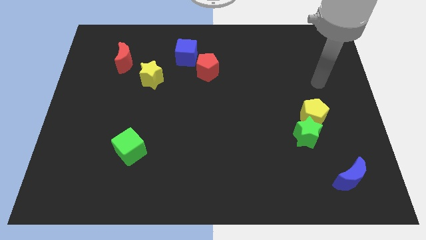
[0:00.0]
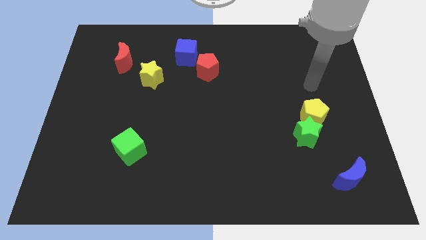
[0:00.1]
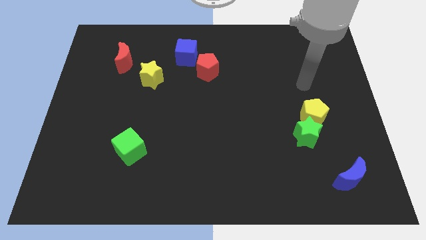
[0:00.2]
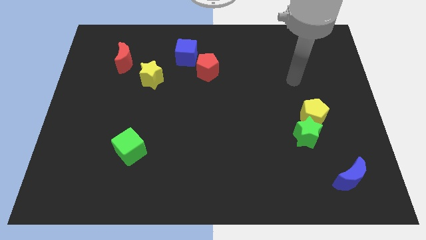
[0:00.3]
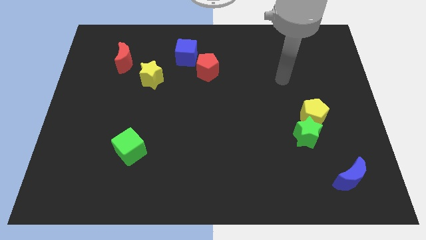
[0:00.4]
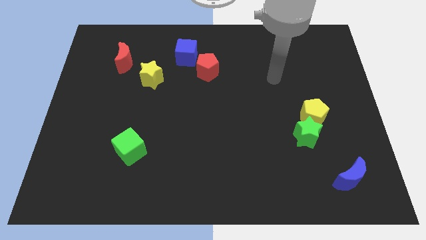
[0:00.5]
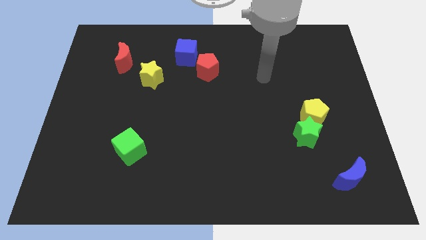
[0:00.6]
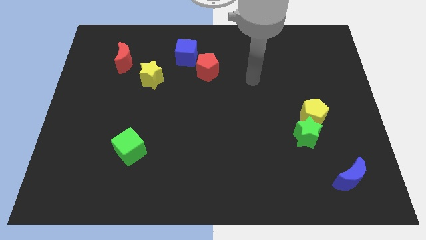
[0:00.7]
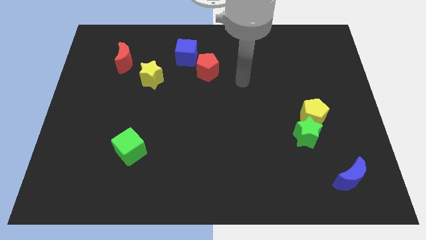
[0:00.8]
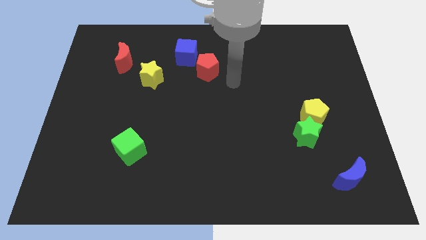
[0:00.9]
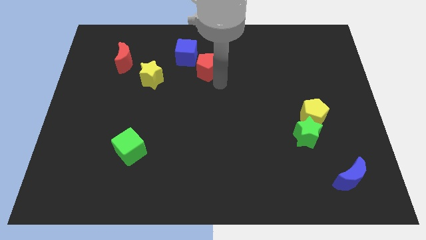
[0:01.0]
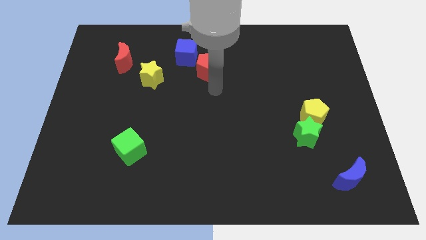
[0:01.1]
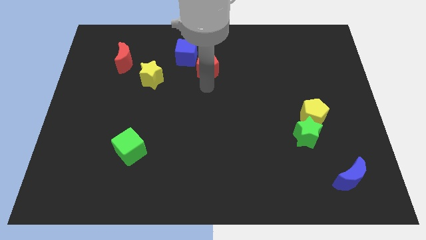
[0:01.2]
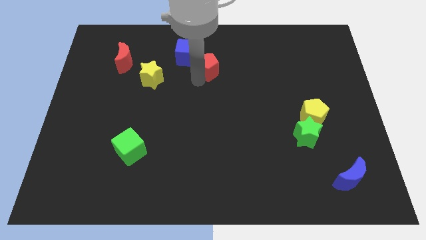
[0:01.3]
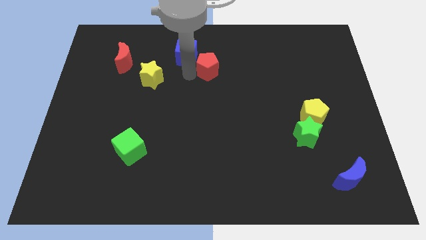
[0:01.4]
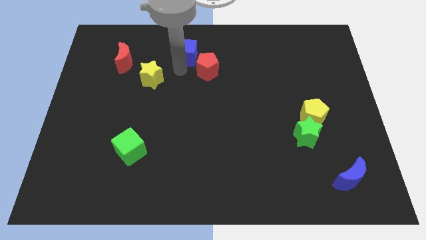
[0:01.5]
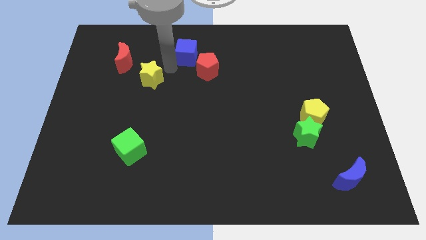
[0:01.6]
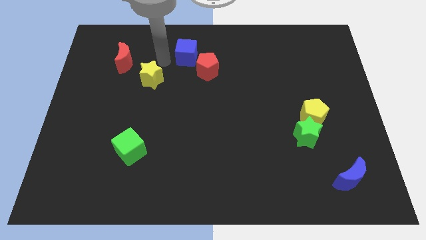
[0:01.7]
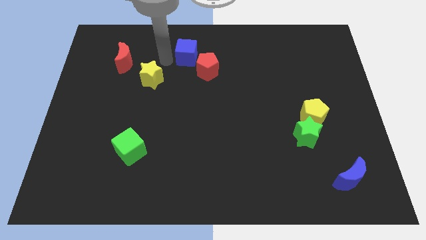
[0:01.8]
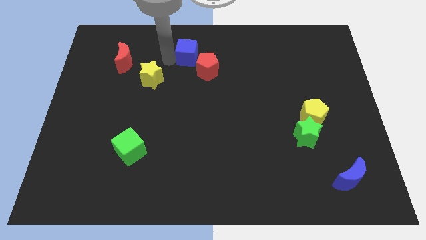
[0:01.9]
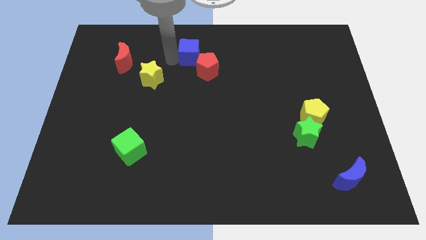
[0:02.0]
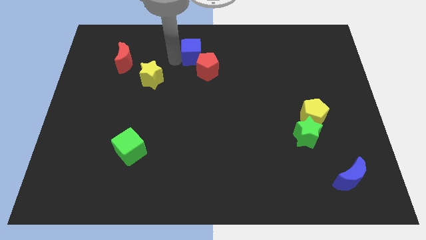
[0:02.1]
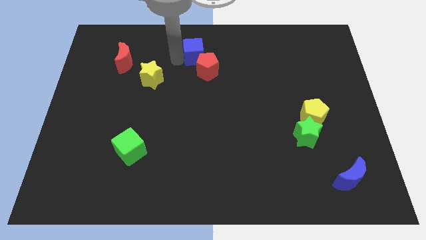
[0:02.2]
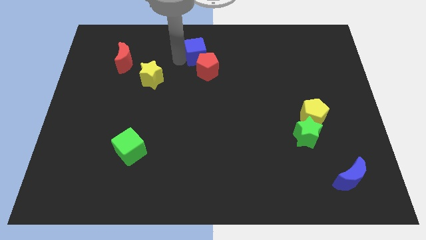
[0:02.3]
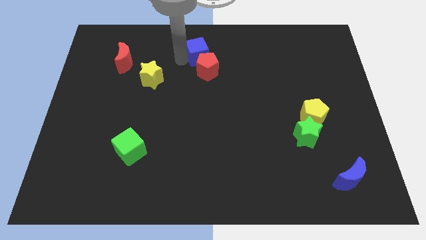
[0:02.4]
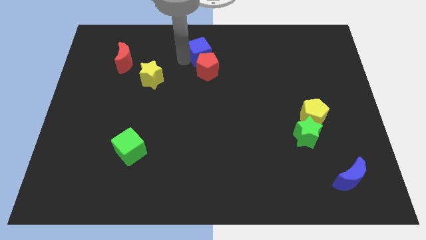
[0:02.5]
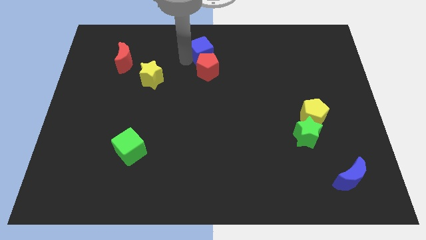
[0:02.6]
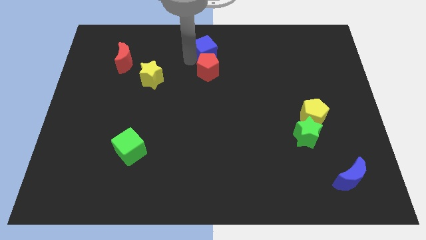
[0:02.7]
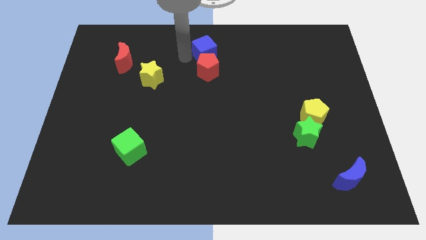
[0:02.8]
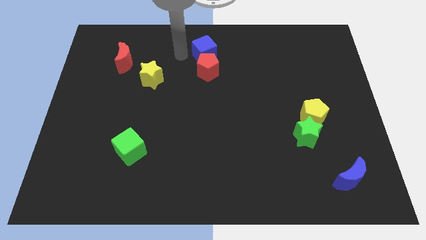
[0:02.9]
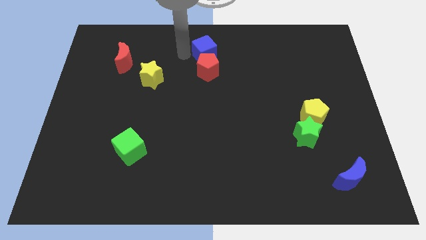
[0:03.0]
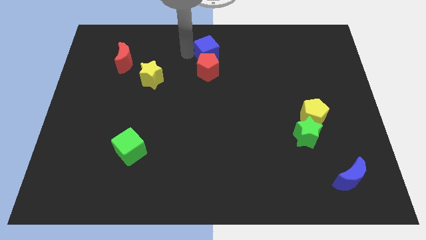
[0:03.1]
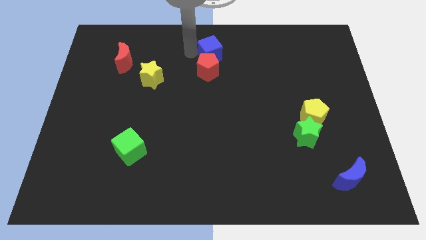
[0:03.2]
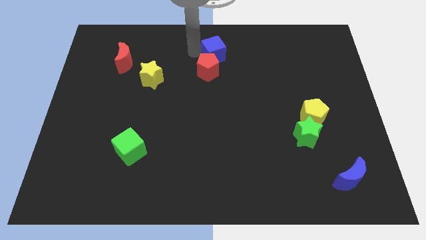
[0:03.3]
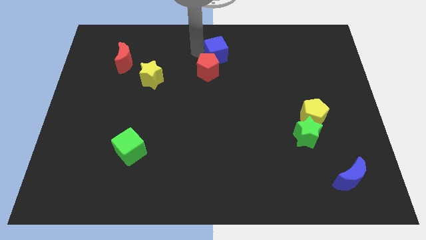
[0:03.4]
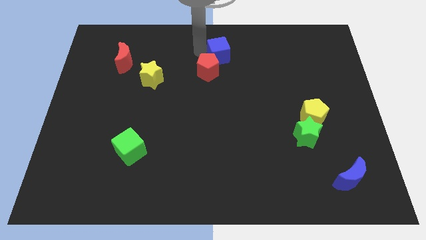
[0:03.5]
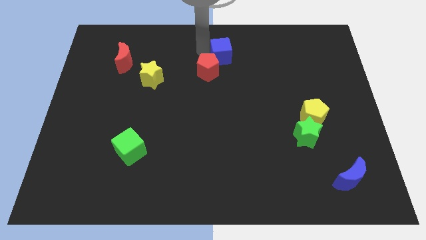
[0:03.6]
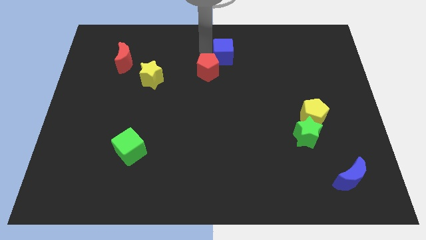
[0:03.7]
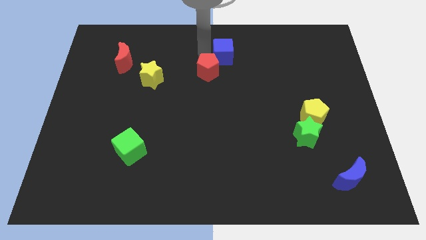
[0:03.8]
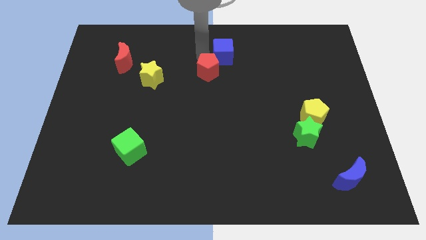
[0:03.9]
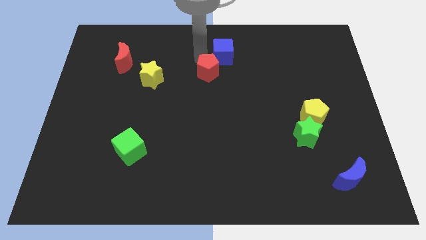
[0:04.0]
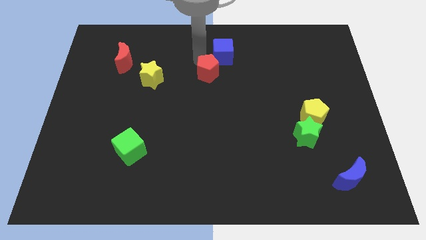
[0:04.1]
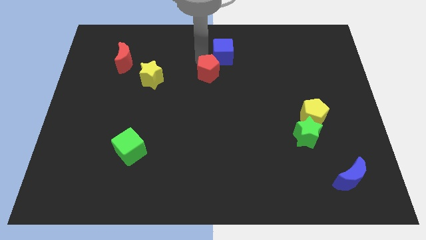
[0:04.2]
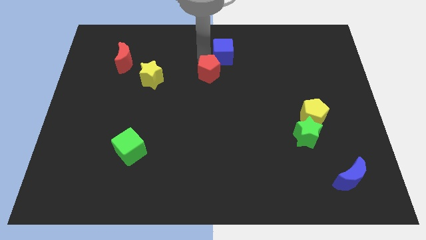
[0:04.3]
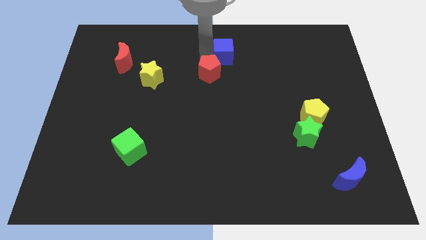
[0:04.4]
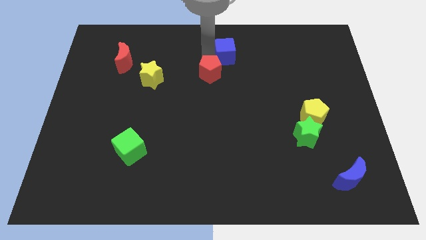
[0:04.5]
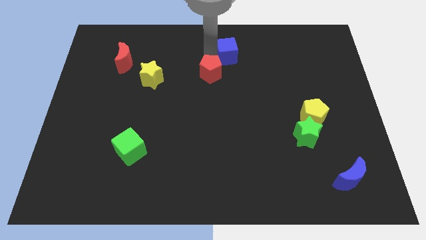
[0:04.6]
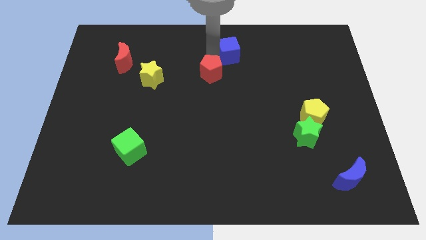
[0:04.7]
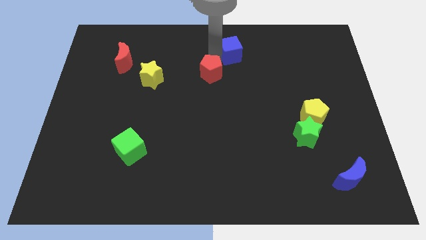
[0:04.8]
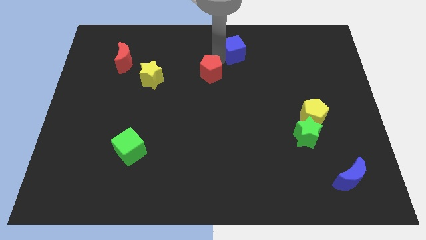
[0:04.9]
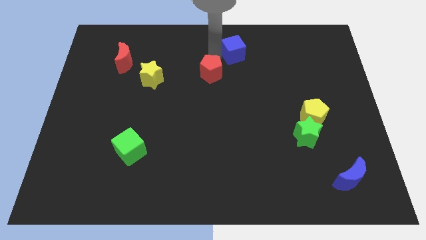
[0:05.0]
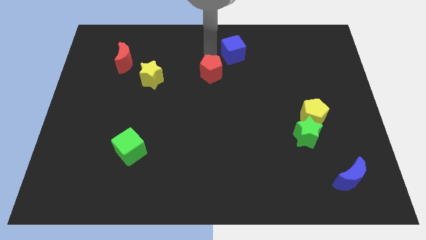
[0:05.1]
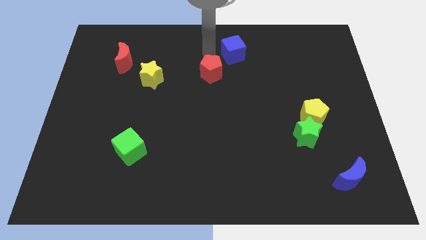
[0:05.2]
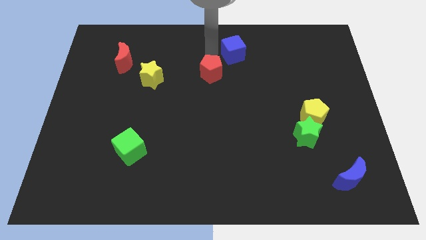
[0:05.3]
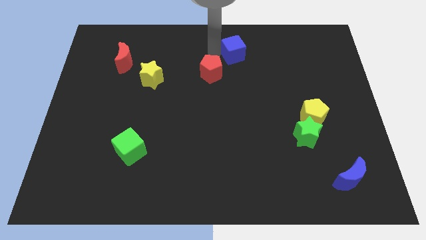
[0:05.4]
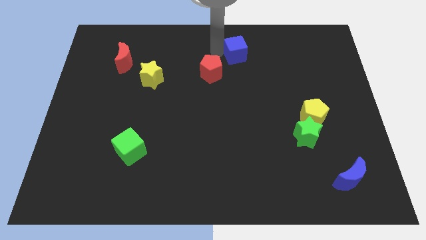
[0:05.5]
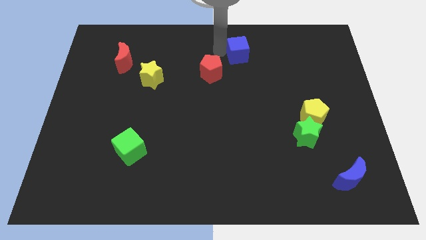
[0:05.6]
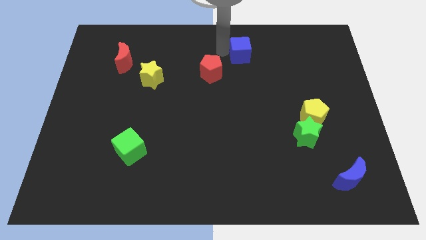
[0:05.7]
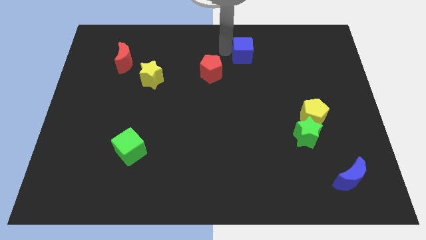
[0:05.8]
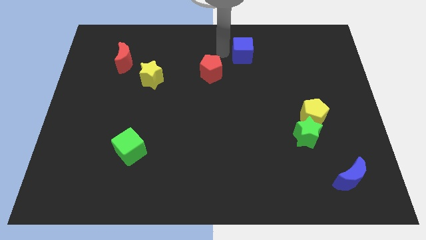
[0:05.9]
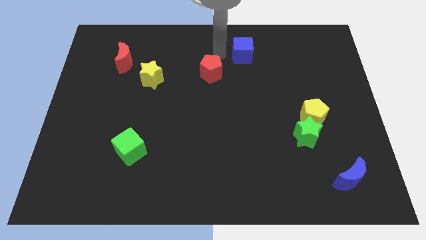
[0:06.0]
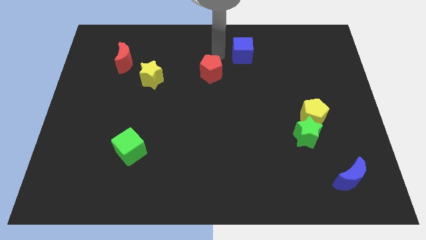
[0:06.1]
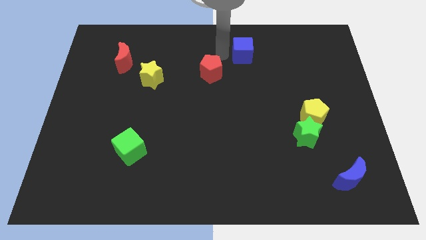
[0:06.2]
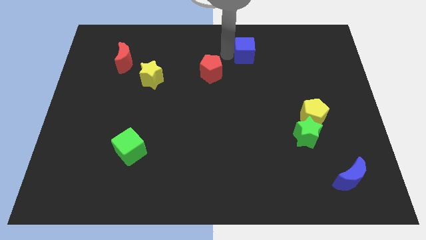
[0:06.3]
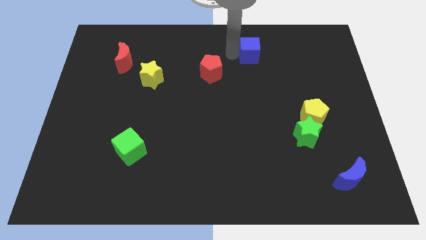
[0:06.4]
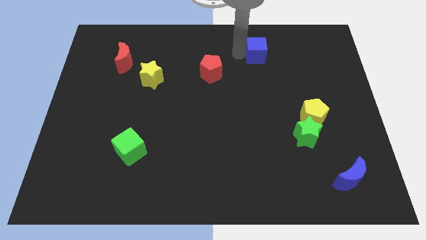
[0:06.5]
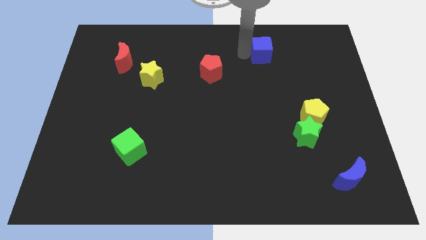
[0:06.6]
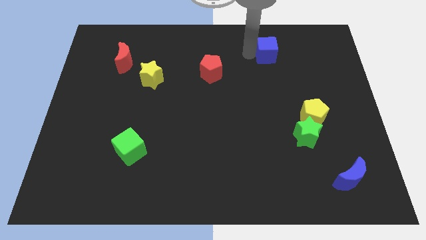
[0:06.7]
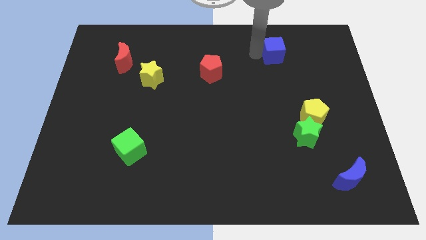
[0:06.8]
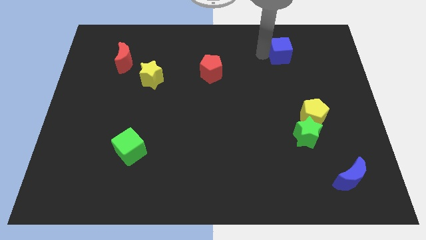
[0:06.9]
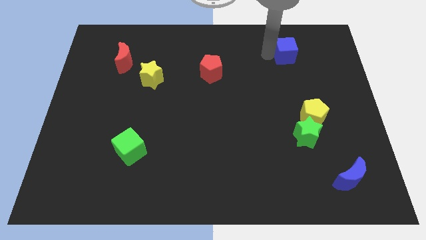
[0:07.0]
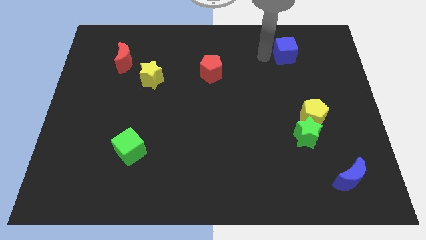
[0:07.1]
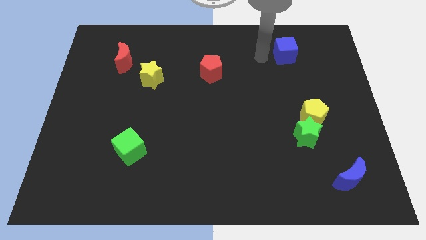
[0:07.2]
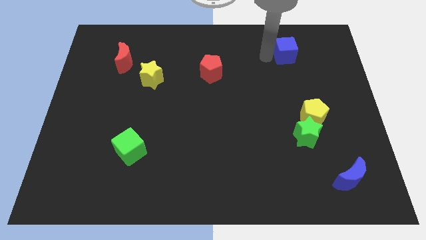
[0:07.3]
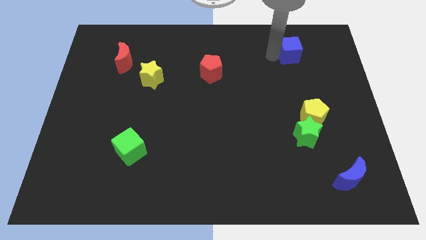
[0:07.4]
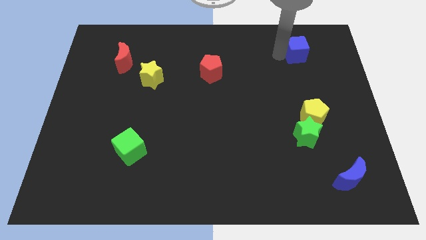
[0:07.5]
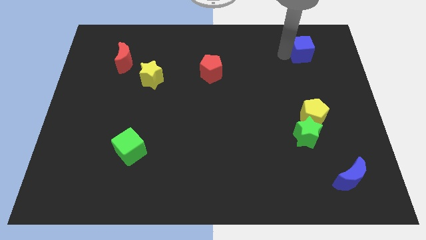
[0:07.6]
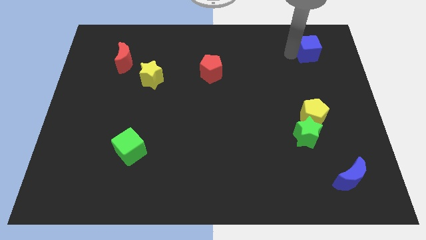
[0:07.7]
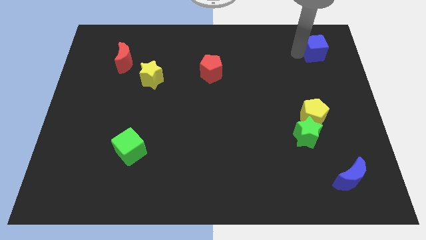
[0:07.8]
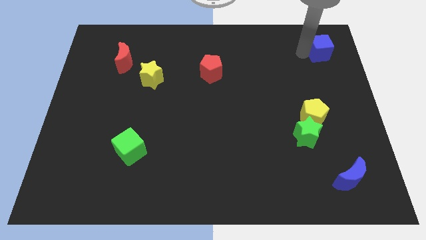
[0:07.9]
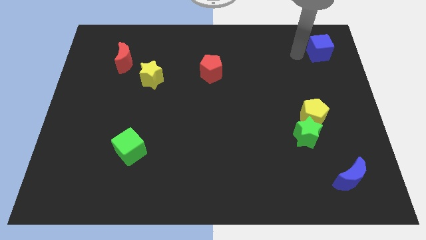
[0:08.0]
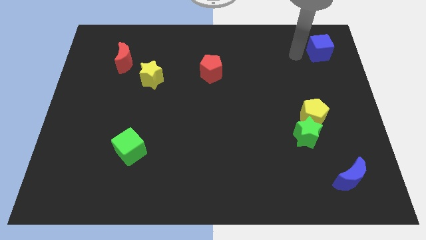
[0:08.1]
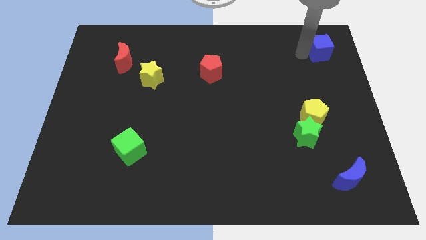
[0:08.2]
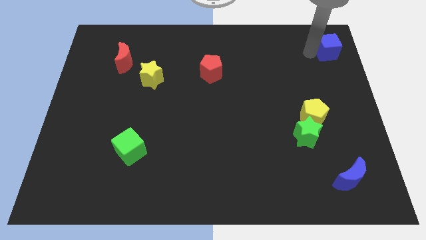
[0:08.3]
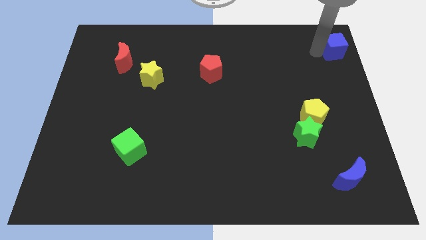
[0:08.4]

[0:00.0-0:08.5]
slide the blue cube to the upper right corner
